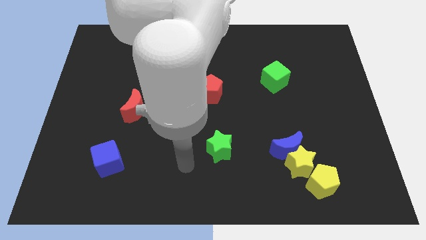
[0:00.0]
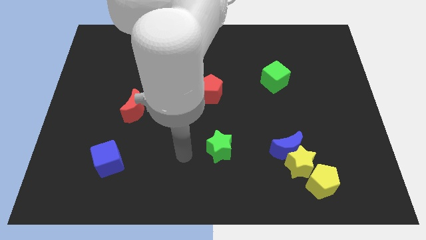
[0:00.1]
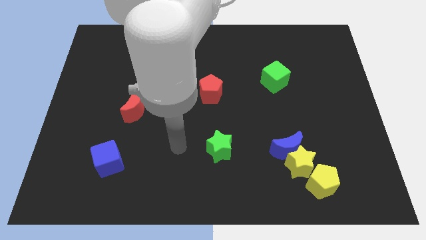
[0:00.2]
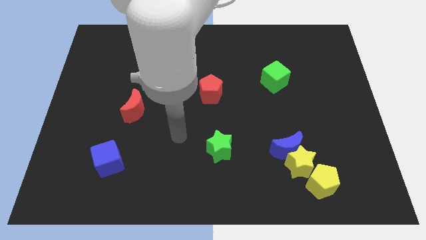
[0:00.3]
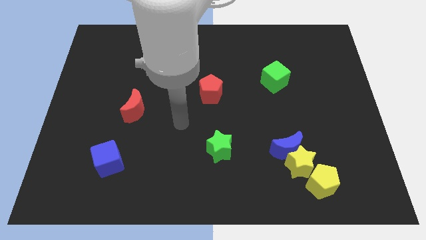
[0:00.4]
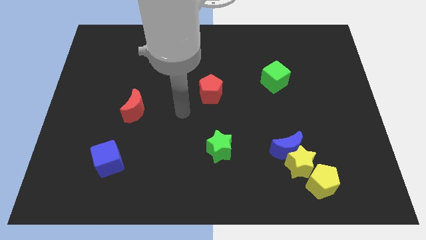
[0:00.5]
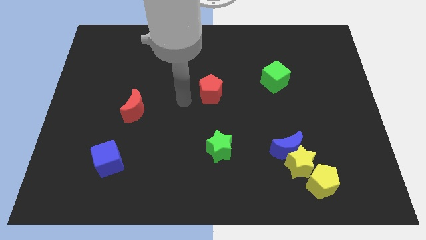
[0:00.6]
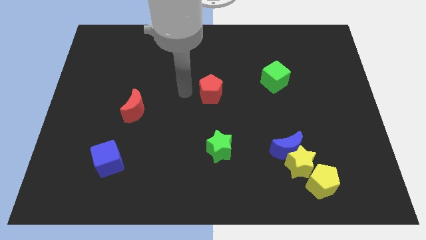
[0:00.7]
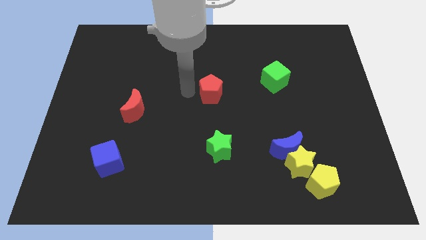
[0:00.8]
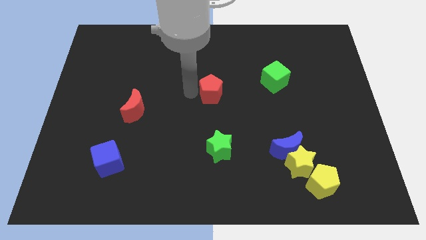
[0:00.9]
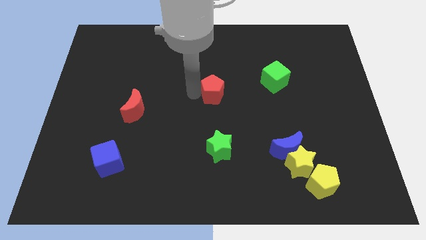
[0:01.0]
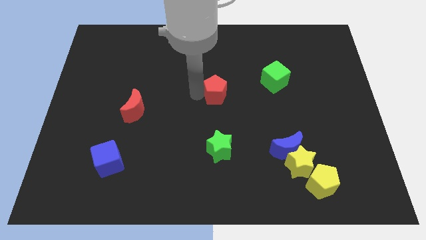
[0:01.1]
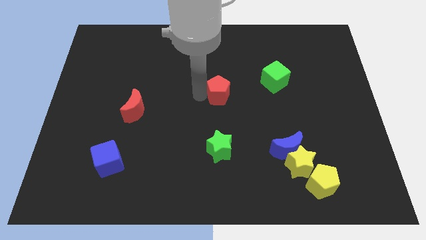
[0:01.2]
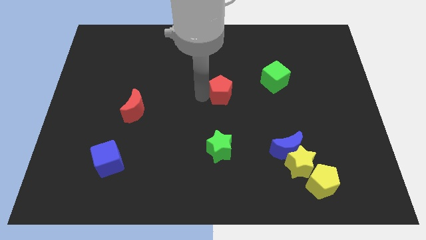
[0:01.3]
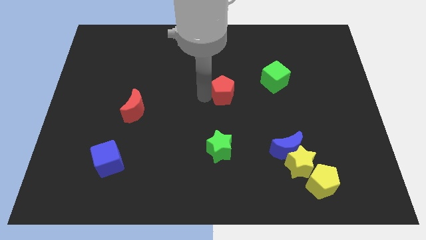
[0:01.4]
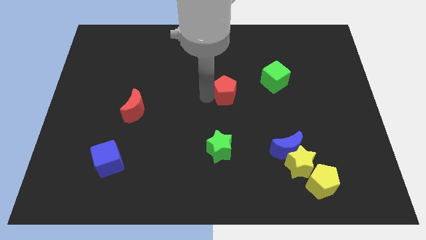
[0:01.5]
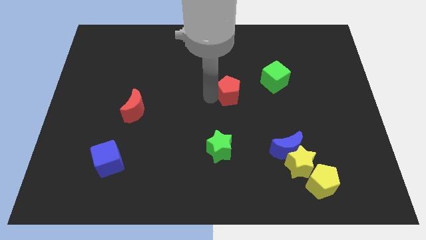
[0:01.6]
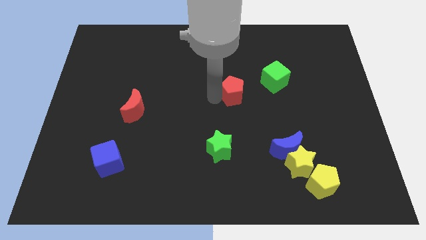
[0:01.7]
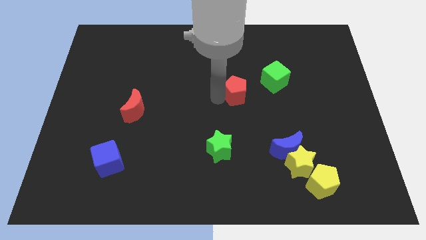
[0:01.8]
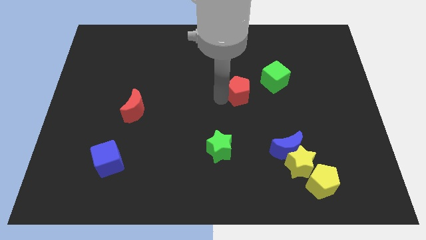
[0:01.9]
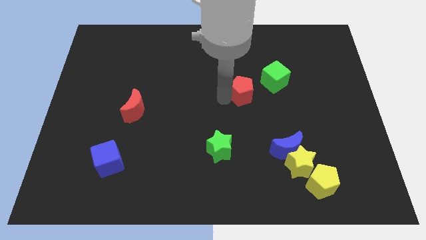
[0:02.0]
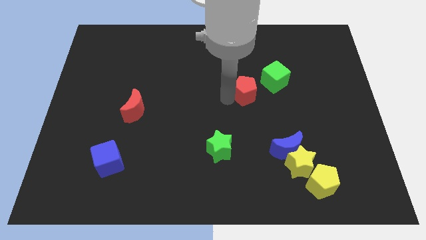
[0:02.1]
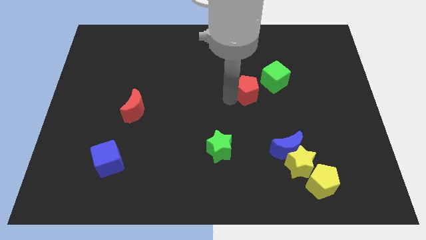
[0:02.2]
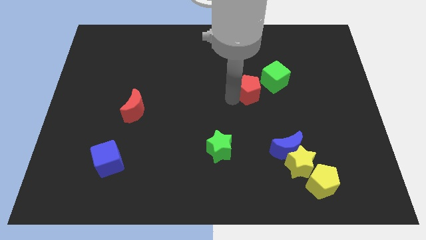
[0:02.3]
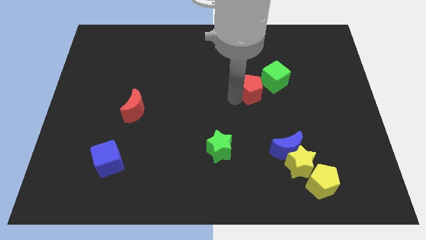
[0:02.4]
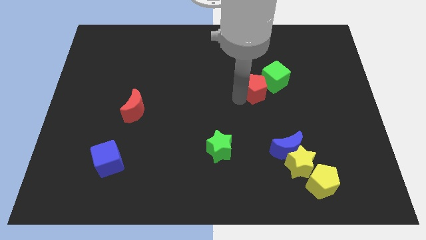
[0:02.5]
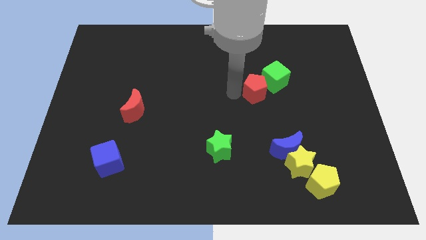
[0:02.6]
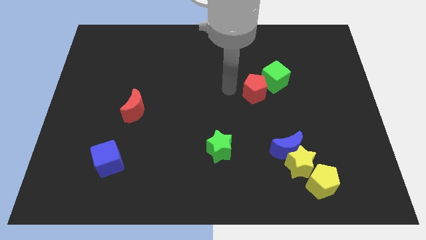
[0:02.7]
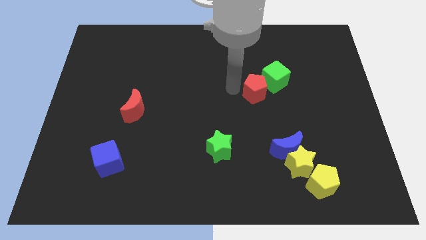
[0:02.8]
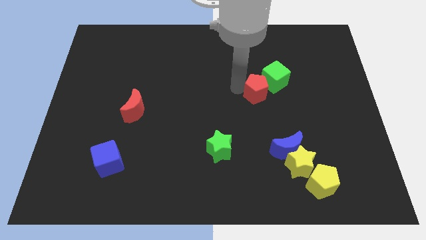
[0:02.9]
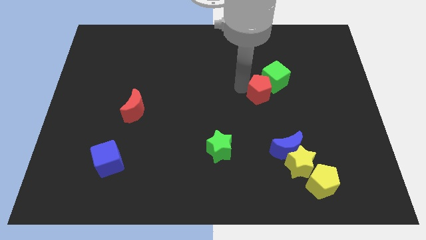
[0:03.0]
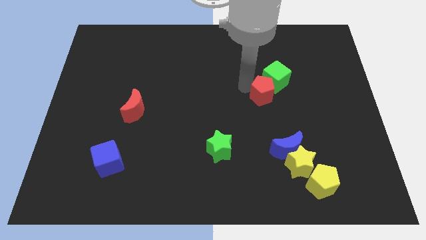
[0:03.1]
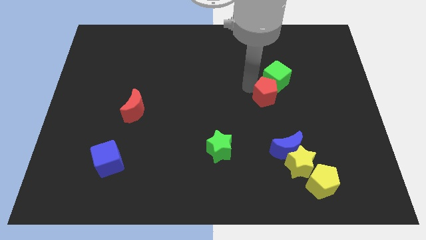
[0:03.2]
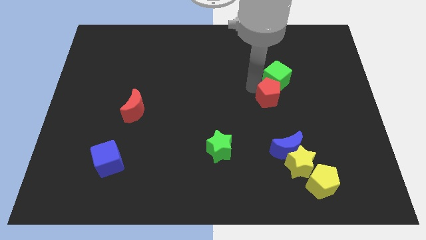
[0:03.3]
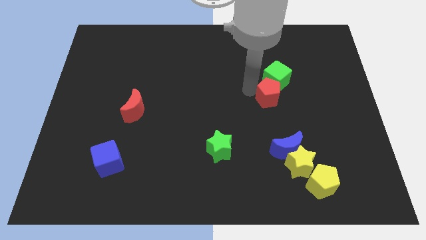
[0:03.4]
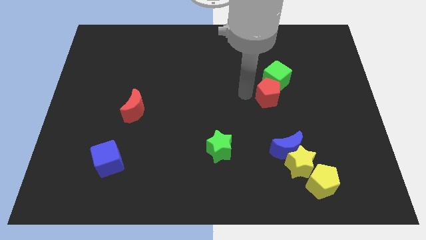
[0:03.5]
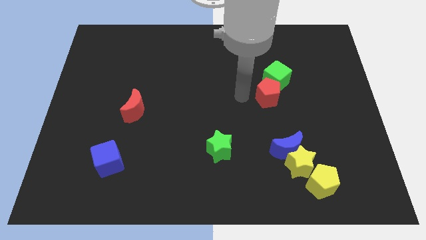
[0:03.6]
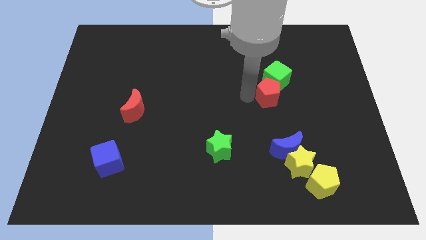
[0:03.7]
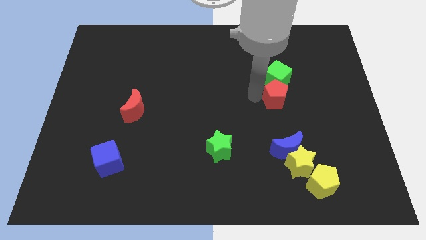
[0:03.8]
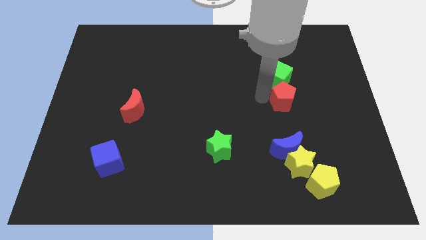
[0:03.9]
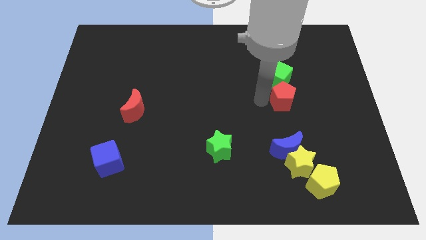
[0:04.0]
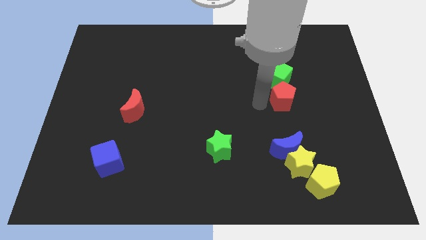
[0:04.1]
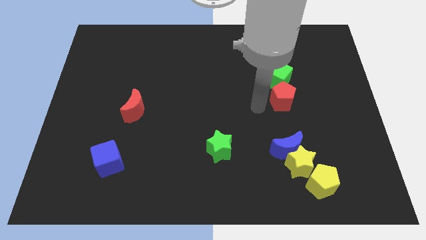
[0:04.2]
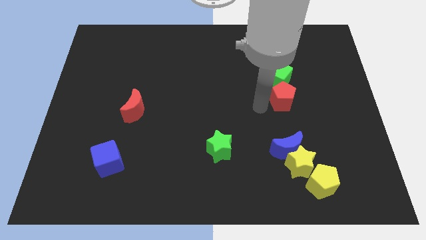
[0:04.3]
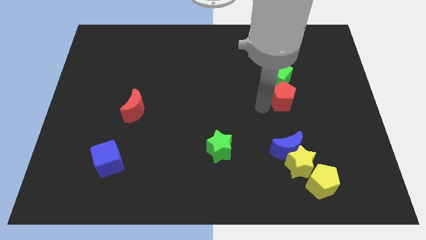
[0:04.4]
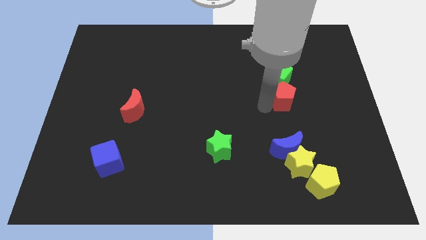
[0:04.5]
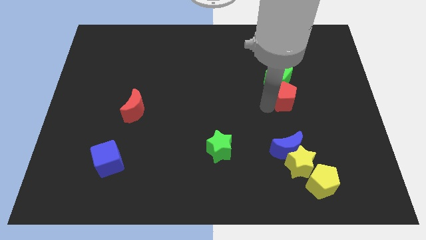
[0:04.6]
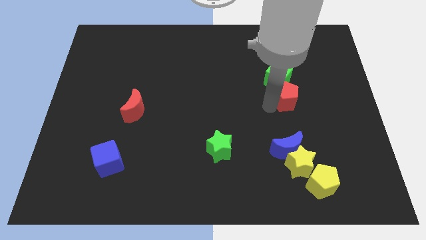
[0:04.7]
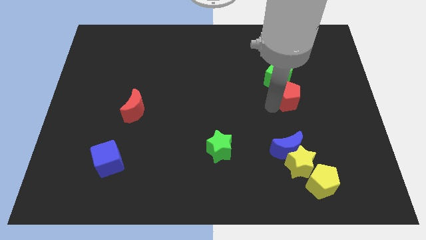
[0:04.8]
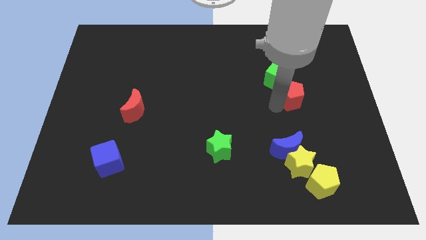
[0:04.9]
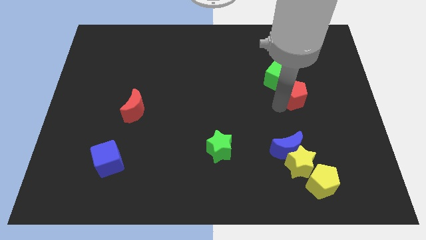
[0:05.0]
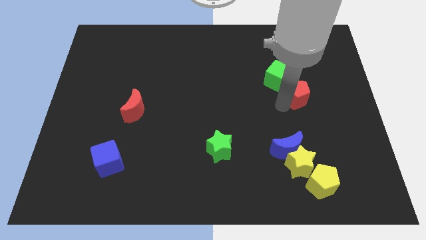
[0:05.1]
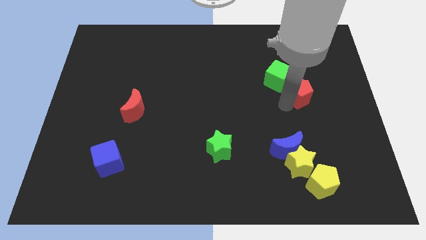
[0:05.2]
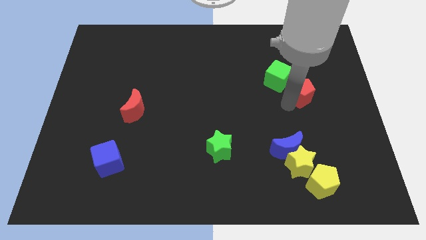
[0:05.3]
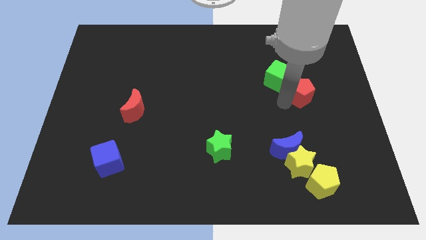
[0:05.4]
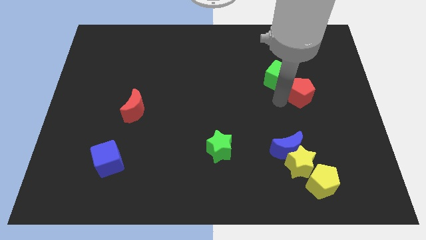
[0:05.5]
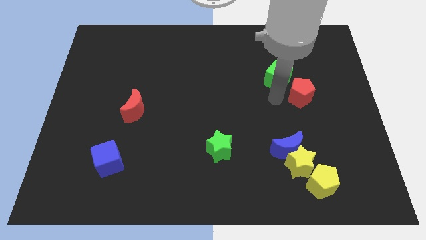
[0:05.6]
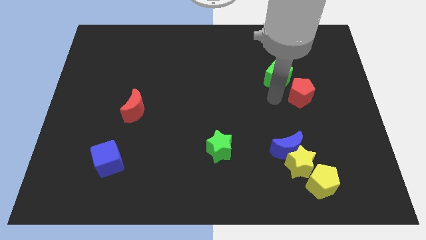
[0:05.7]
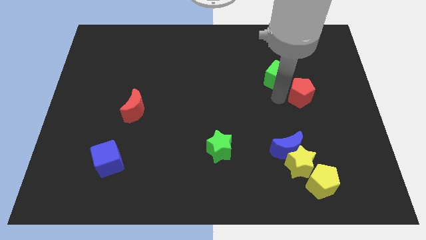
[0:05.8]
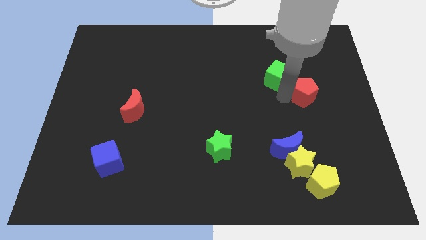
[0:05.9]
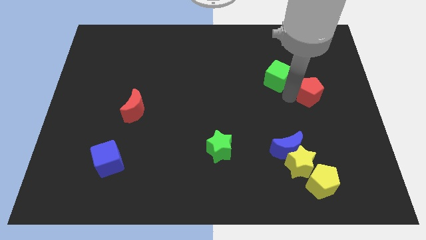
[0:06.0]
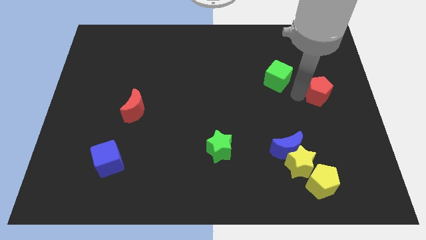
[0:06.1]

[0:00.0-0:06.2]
move the red pentagon to the right side

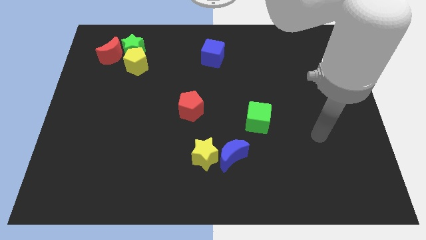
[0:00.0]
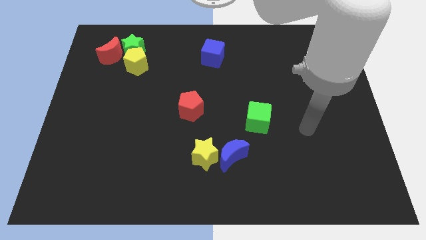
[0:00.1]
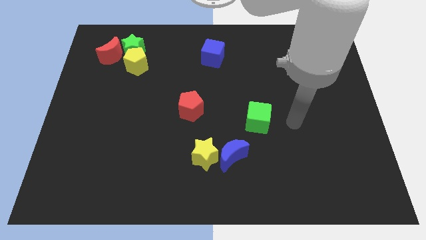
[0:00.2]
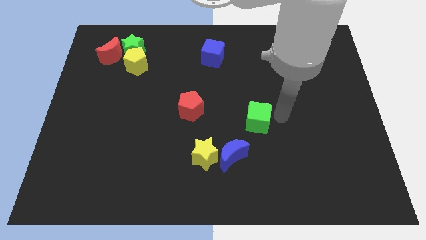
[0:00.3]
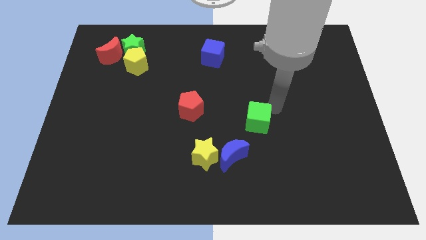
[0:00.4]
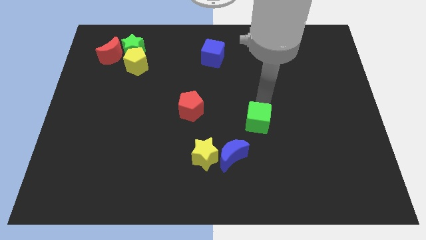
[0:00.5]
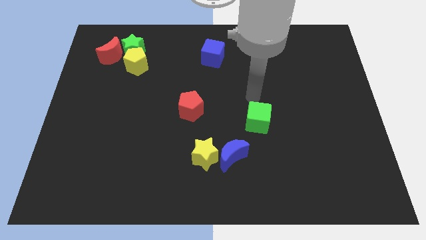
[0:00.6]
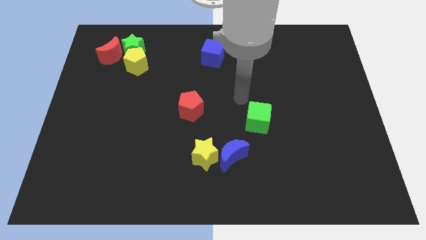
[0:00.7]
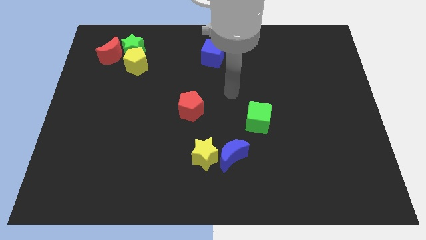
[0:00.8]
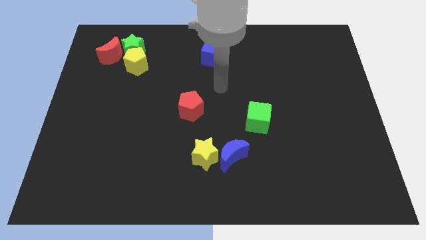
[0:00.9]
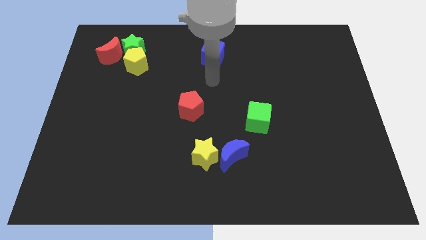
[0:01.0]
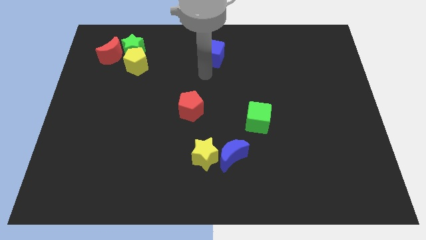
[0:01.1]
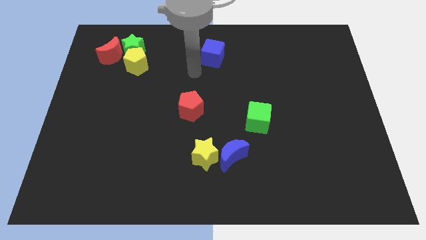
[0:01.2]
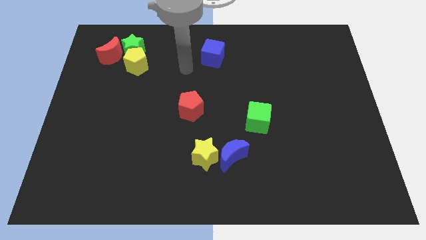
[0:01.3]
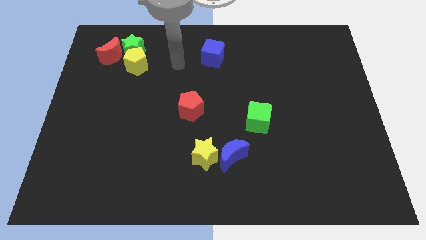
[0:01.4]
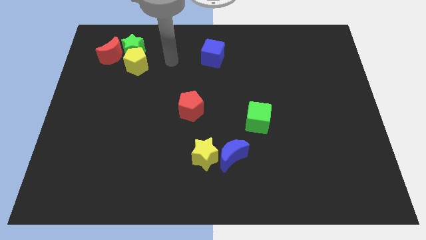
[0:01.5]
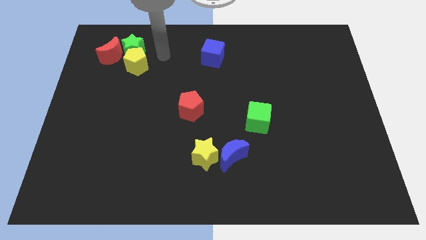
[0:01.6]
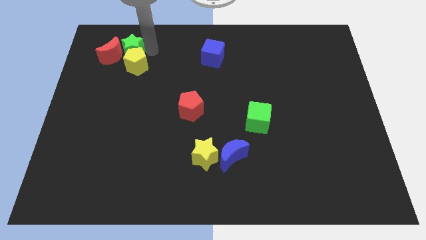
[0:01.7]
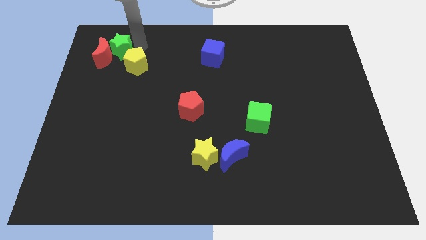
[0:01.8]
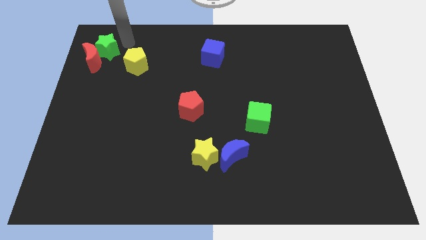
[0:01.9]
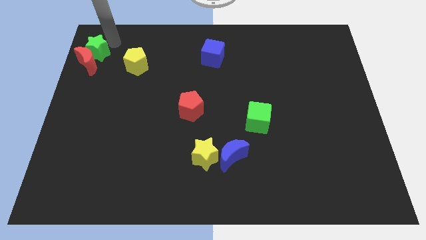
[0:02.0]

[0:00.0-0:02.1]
put the red moon to the left side
